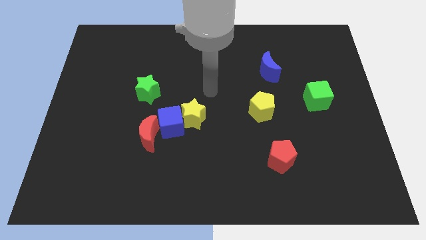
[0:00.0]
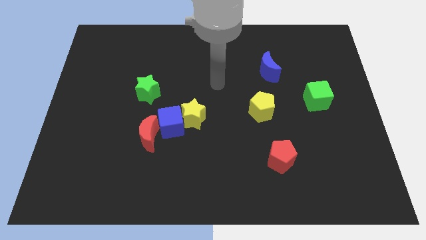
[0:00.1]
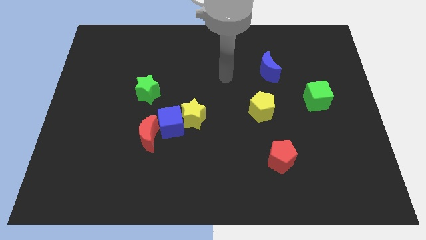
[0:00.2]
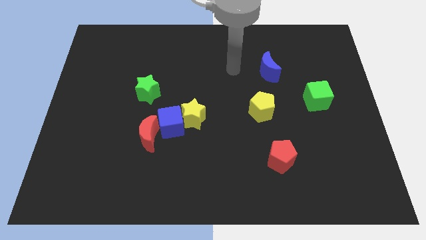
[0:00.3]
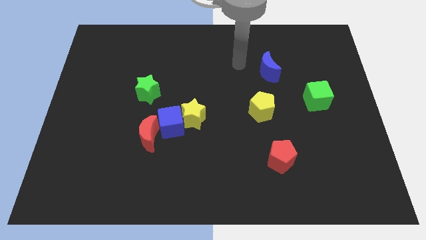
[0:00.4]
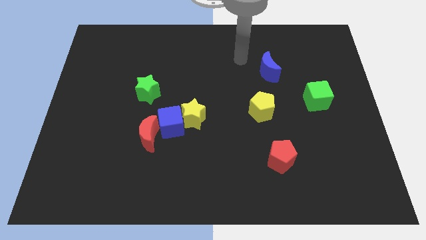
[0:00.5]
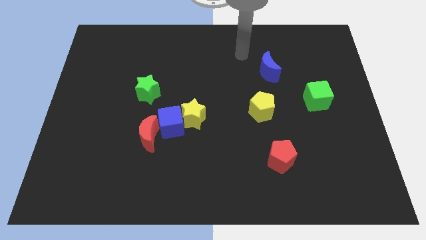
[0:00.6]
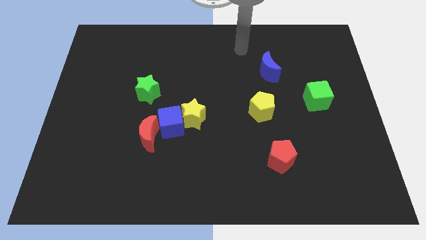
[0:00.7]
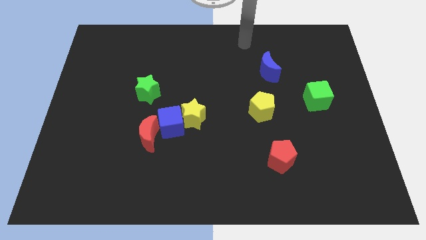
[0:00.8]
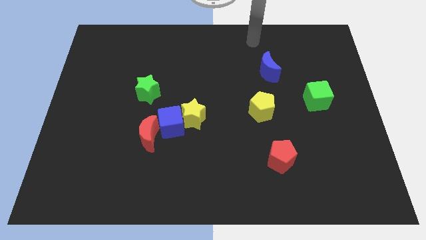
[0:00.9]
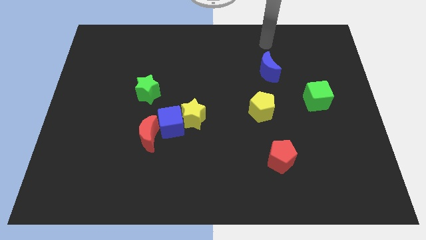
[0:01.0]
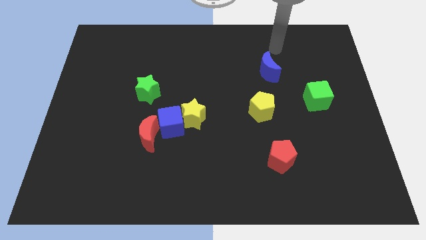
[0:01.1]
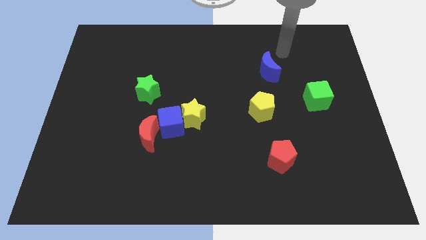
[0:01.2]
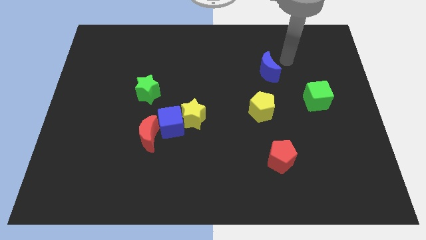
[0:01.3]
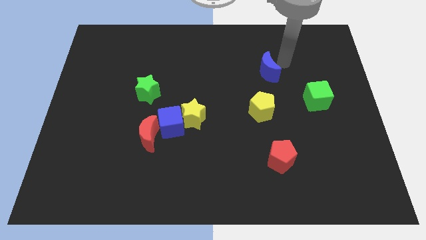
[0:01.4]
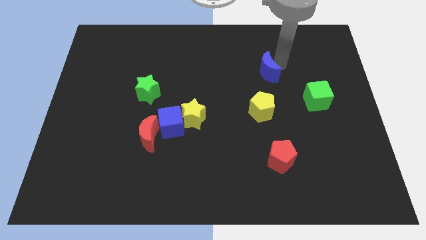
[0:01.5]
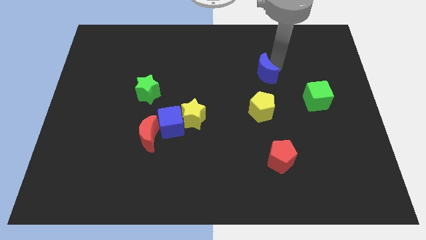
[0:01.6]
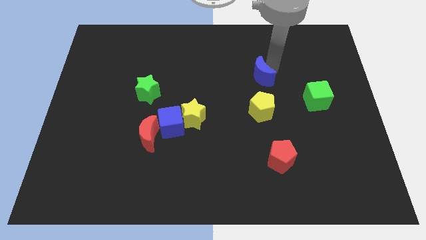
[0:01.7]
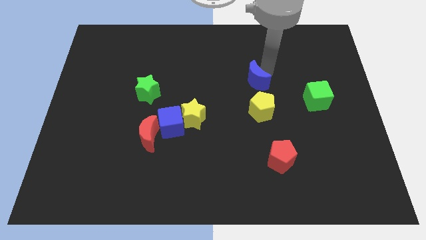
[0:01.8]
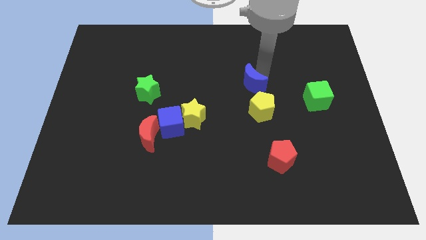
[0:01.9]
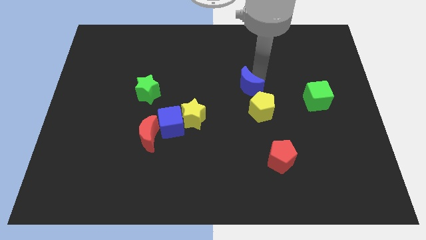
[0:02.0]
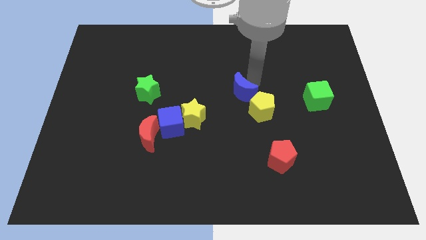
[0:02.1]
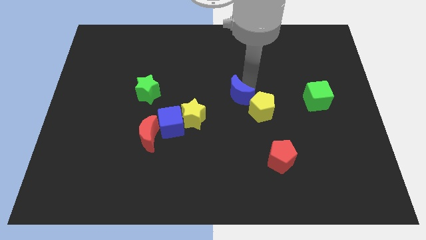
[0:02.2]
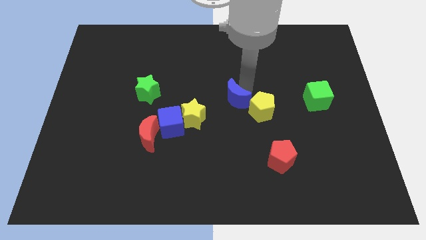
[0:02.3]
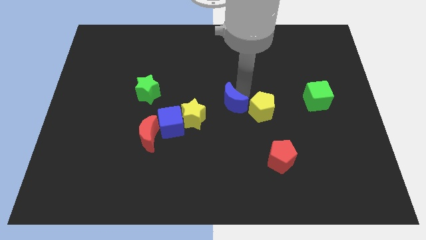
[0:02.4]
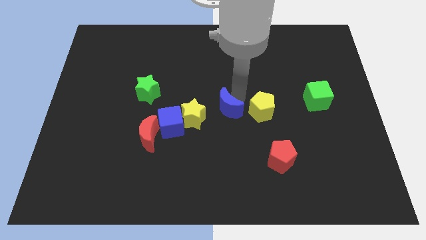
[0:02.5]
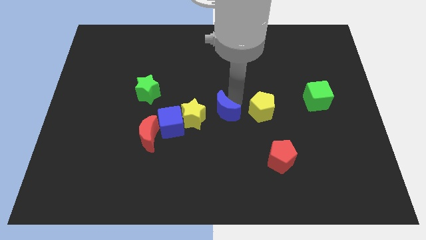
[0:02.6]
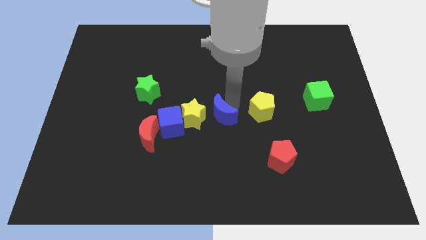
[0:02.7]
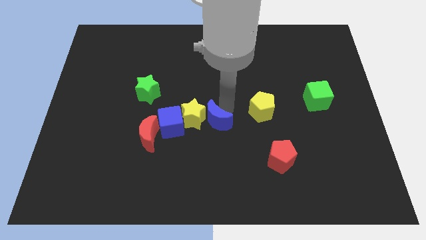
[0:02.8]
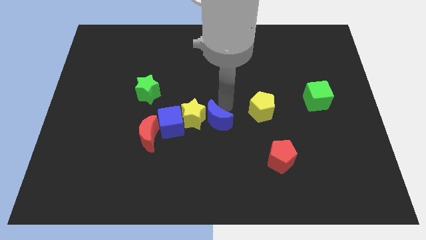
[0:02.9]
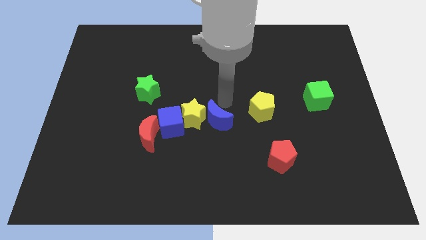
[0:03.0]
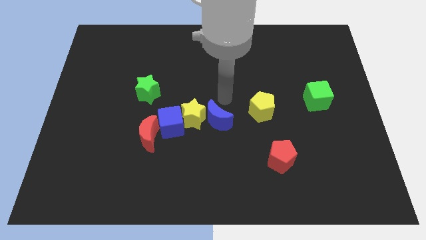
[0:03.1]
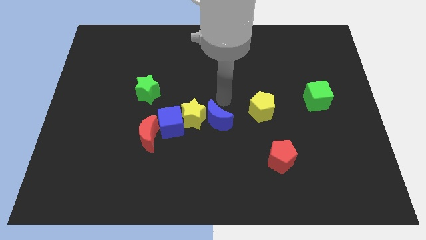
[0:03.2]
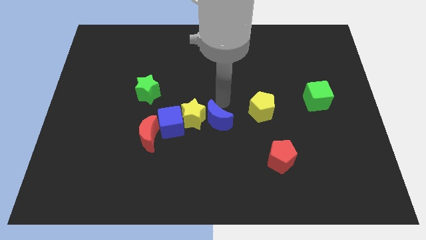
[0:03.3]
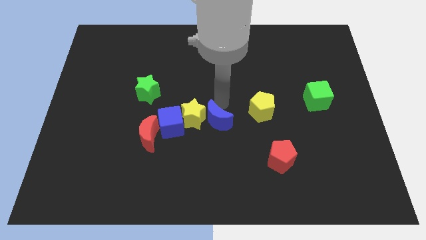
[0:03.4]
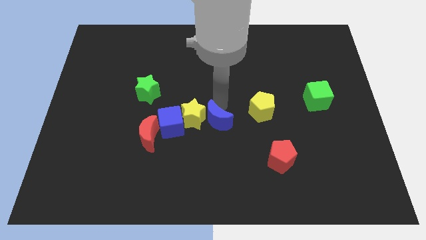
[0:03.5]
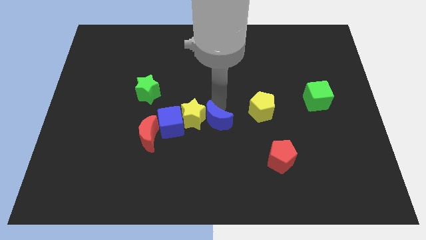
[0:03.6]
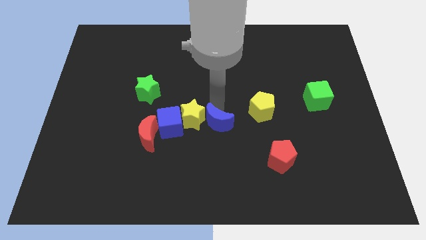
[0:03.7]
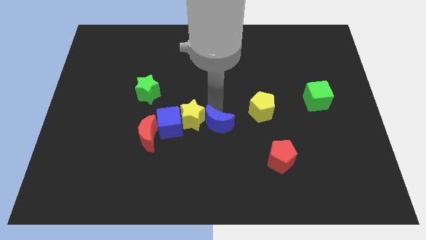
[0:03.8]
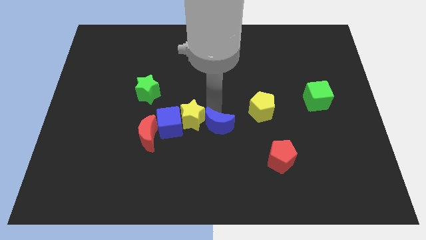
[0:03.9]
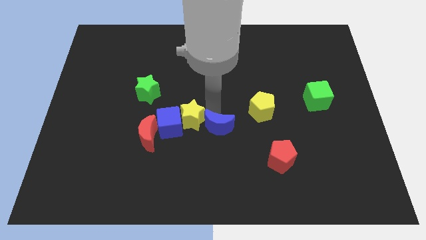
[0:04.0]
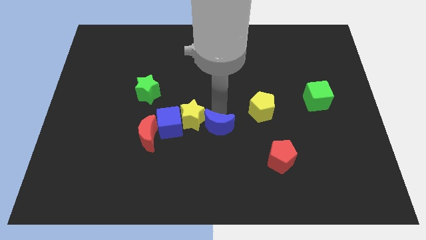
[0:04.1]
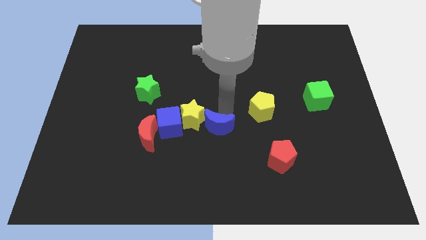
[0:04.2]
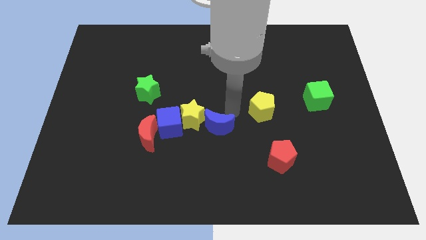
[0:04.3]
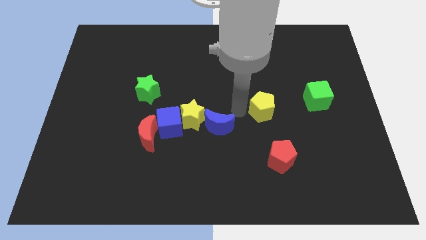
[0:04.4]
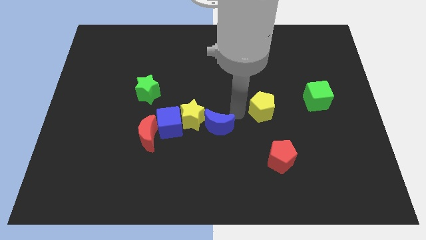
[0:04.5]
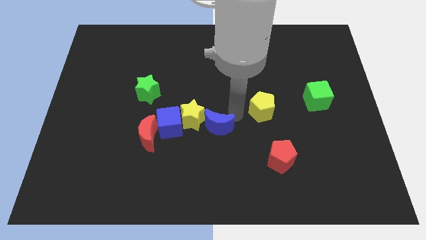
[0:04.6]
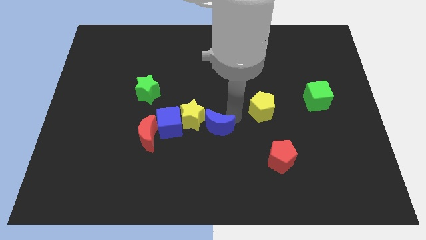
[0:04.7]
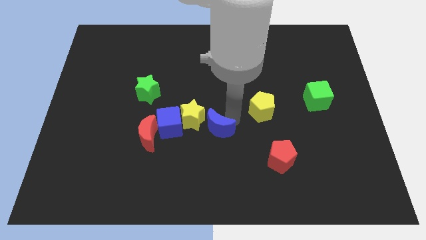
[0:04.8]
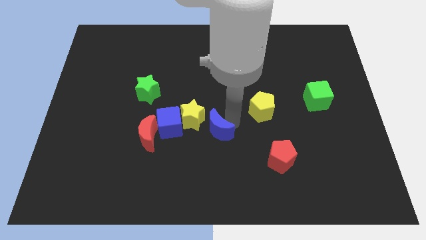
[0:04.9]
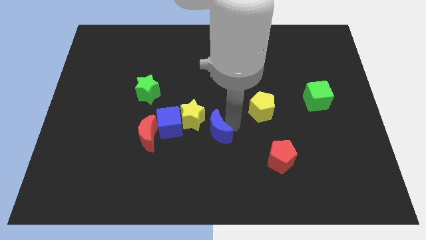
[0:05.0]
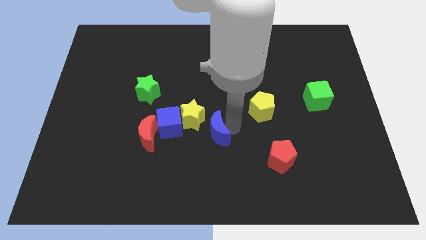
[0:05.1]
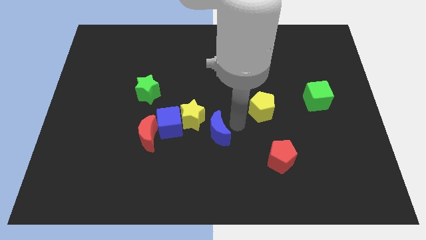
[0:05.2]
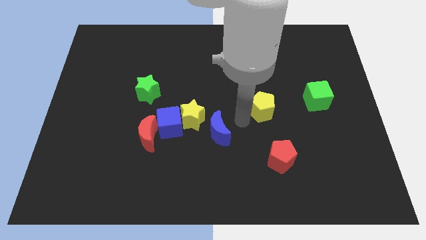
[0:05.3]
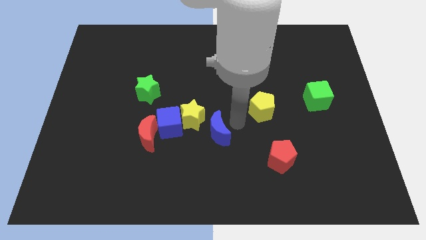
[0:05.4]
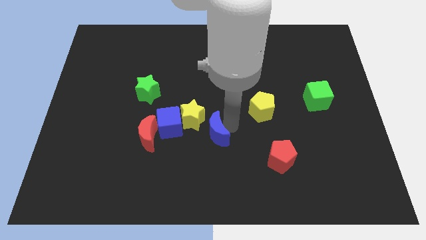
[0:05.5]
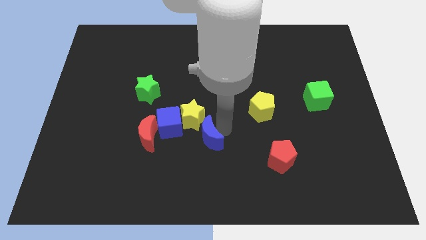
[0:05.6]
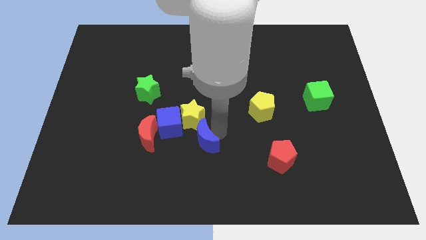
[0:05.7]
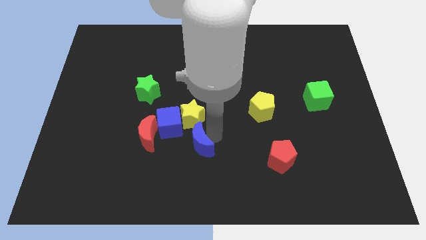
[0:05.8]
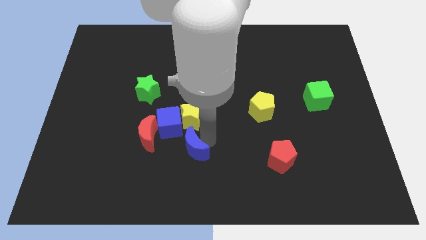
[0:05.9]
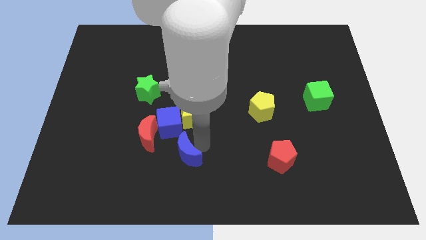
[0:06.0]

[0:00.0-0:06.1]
put the blue moon to the bottom right side of the red moon

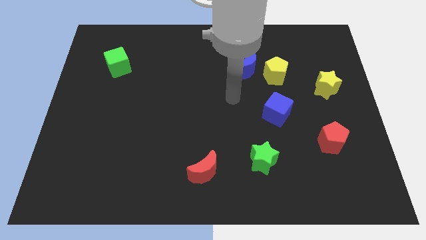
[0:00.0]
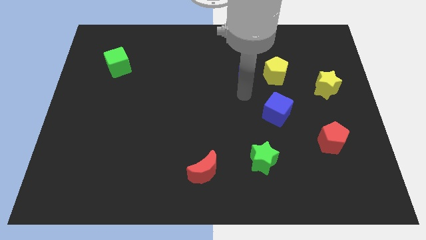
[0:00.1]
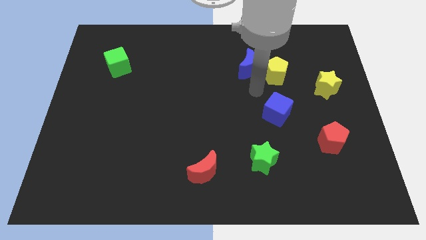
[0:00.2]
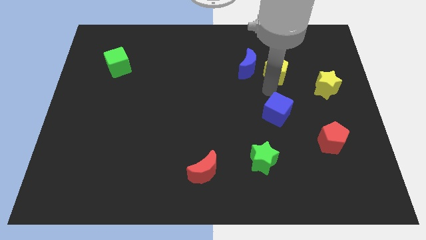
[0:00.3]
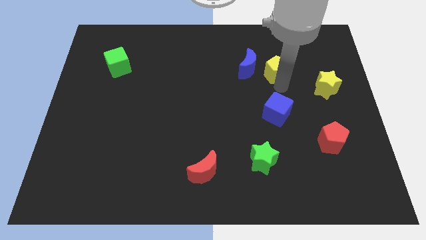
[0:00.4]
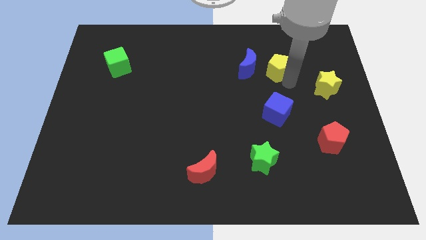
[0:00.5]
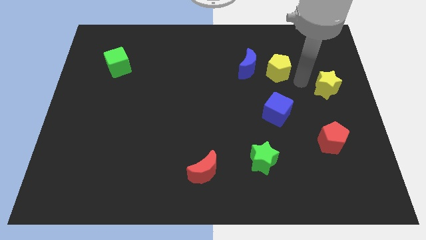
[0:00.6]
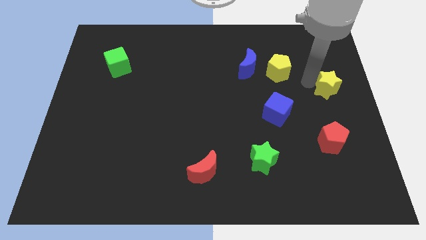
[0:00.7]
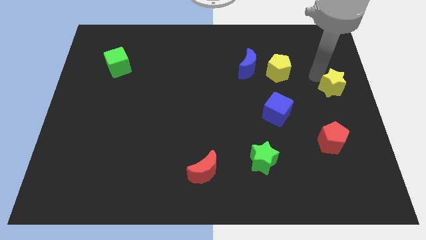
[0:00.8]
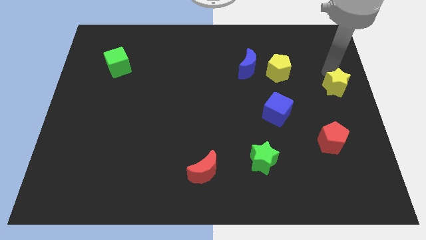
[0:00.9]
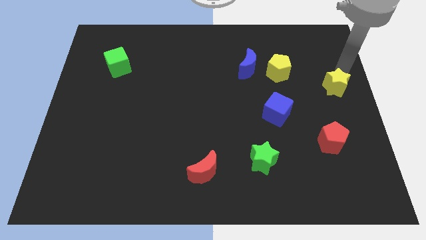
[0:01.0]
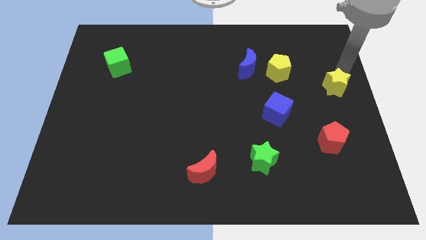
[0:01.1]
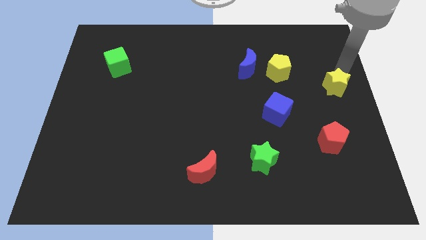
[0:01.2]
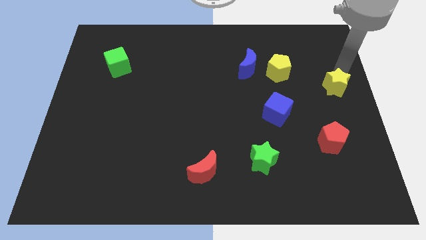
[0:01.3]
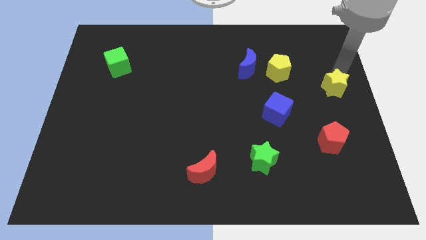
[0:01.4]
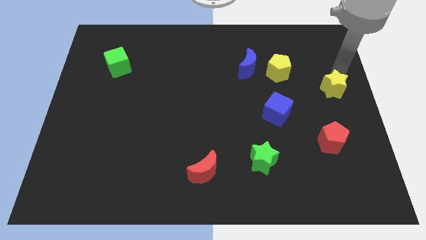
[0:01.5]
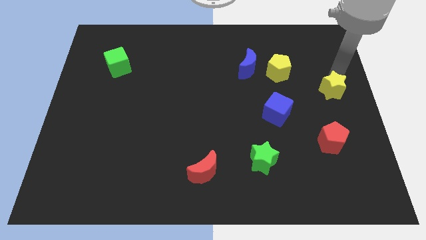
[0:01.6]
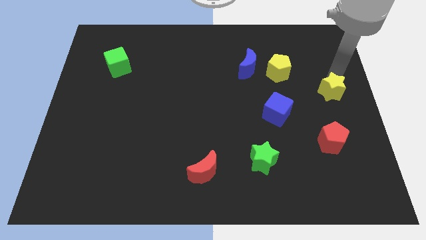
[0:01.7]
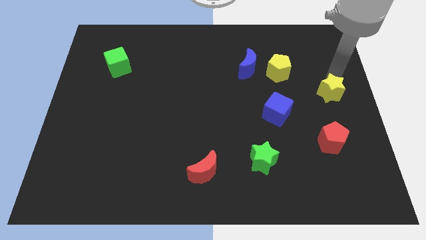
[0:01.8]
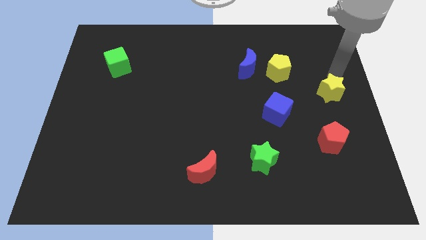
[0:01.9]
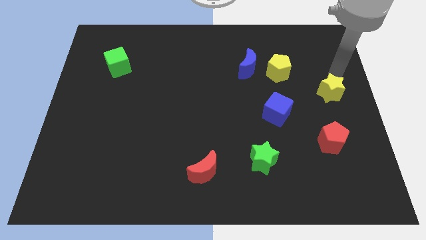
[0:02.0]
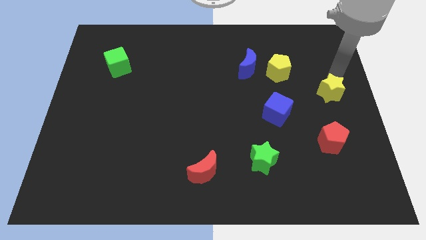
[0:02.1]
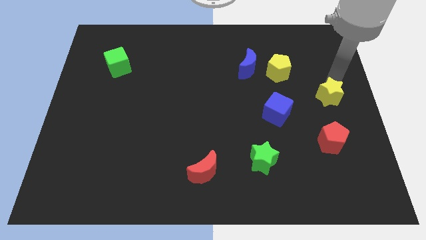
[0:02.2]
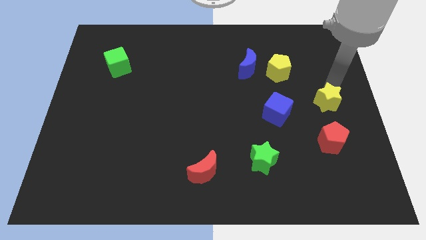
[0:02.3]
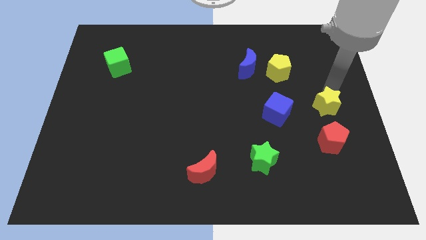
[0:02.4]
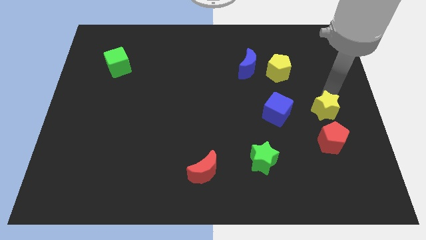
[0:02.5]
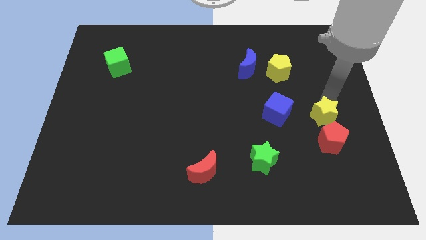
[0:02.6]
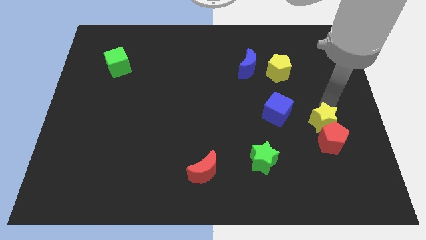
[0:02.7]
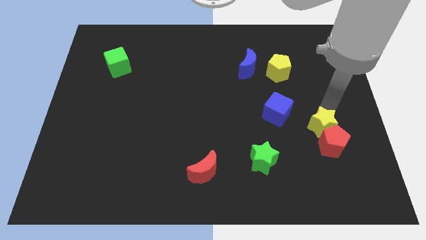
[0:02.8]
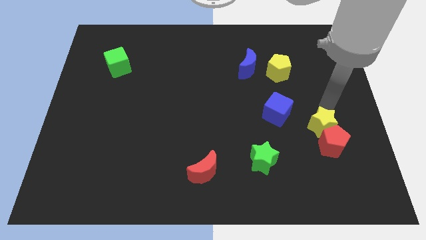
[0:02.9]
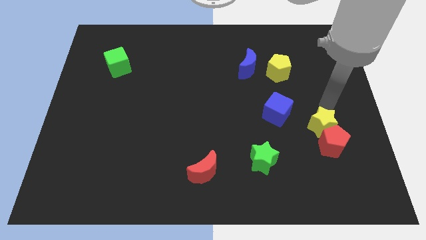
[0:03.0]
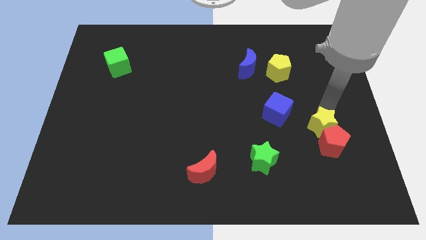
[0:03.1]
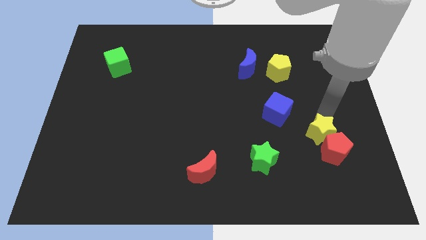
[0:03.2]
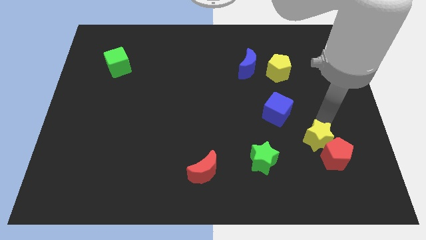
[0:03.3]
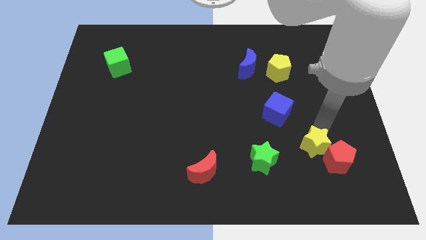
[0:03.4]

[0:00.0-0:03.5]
move the yellow star to the right of the green star
